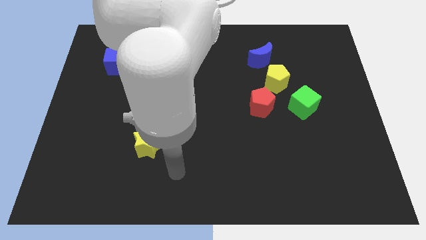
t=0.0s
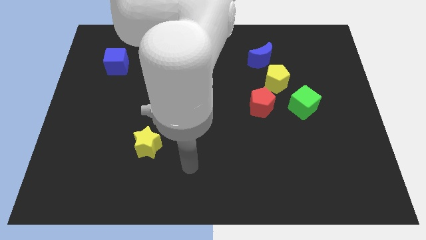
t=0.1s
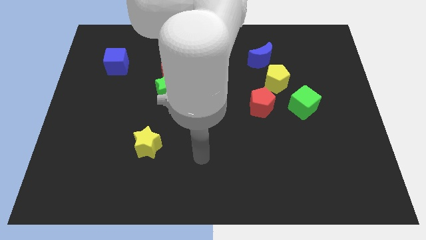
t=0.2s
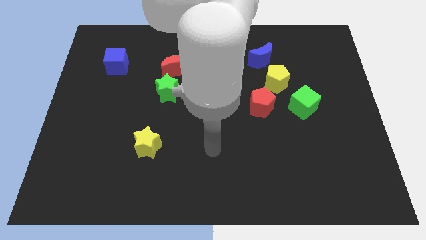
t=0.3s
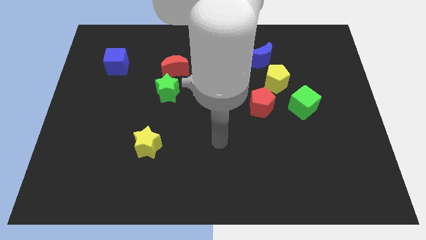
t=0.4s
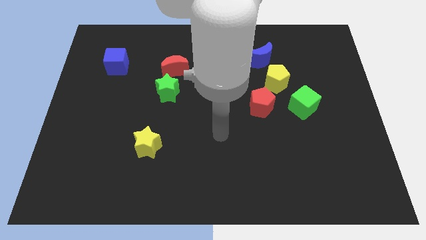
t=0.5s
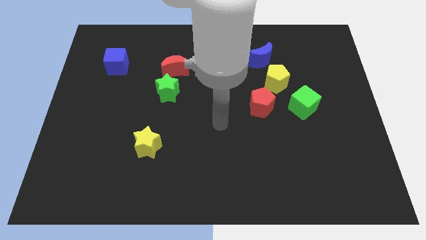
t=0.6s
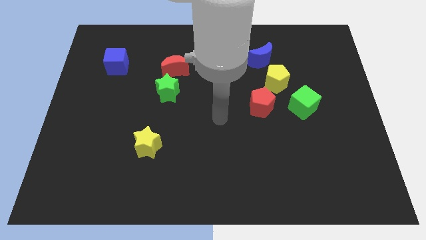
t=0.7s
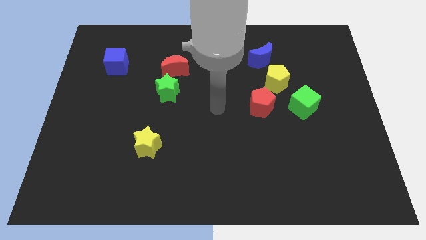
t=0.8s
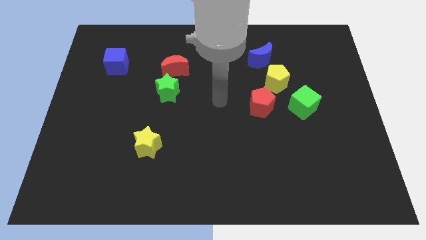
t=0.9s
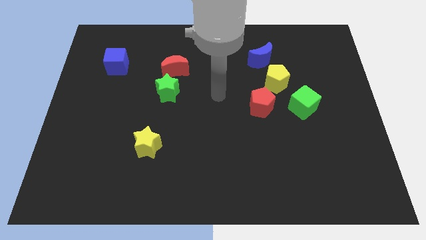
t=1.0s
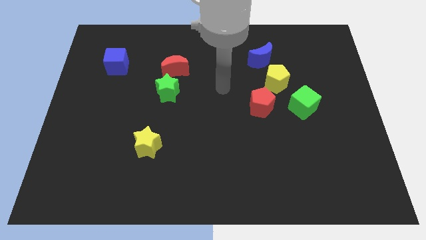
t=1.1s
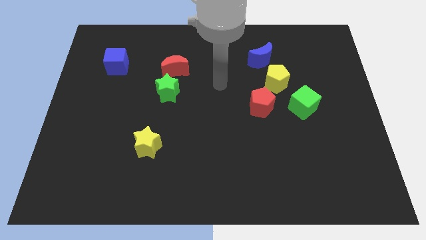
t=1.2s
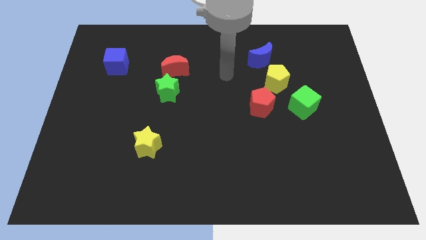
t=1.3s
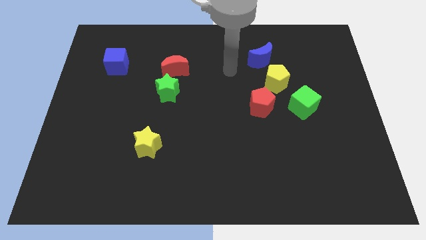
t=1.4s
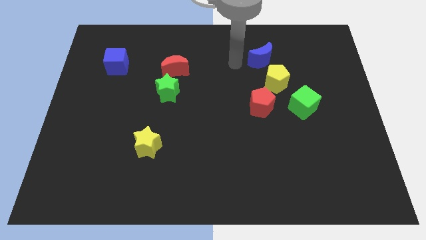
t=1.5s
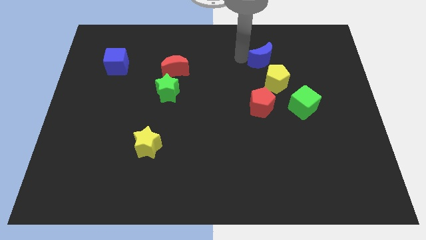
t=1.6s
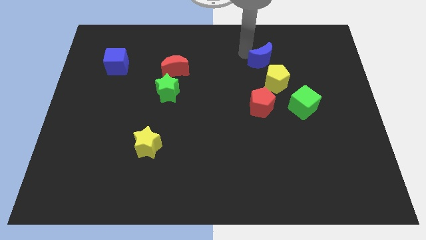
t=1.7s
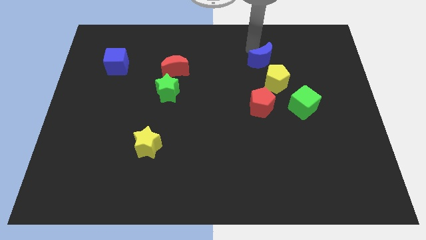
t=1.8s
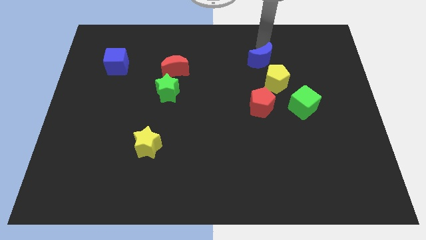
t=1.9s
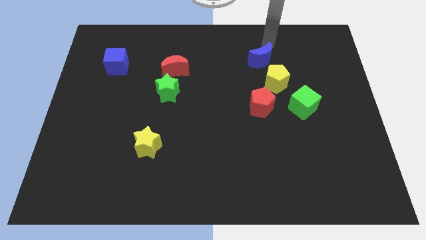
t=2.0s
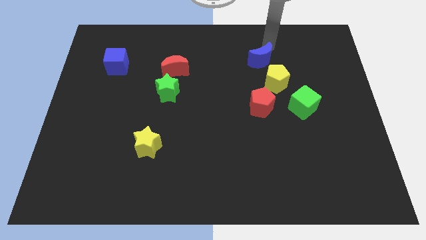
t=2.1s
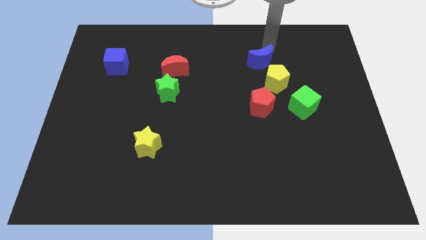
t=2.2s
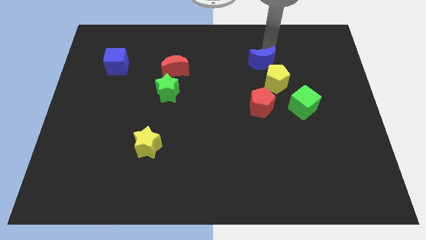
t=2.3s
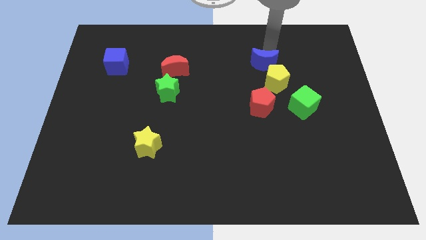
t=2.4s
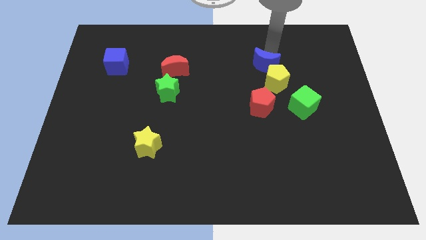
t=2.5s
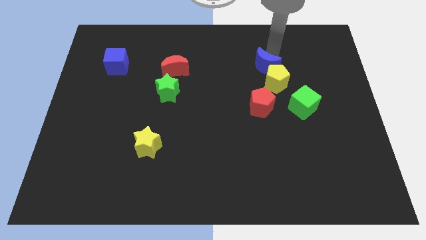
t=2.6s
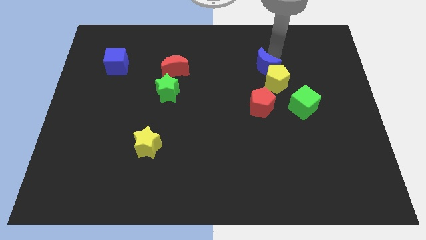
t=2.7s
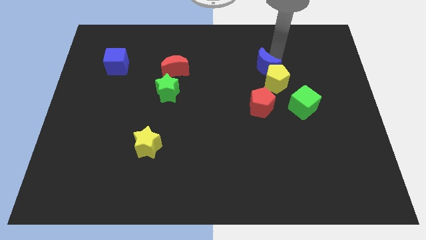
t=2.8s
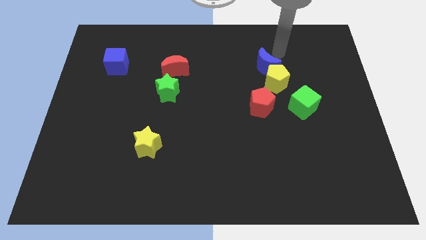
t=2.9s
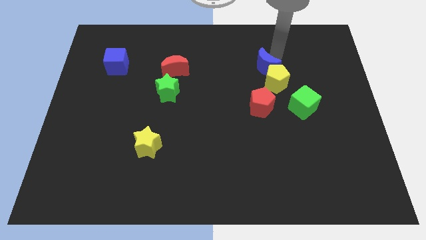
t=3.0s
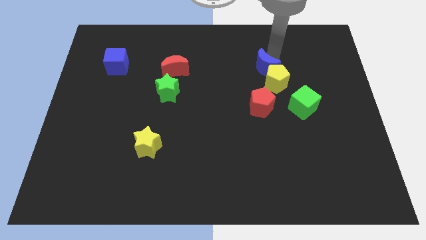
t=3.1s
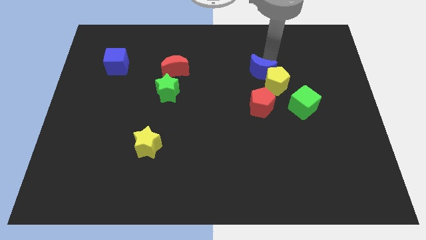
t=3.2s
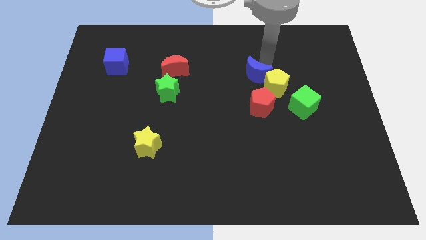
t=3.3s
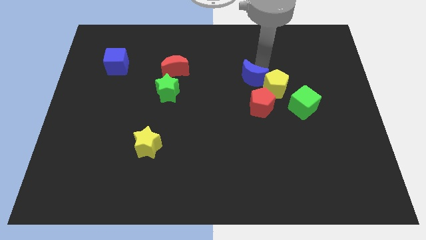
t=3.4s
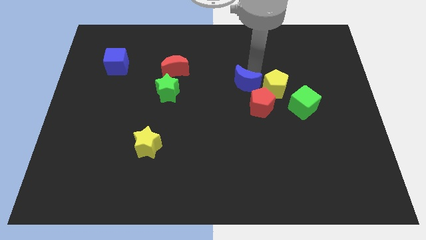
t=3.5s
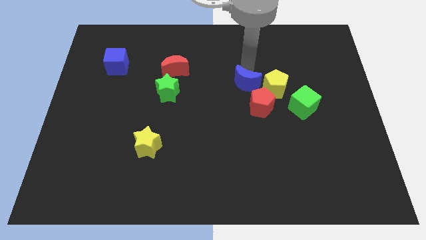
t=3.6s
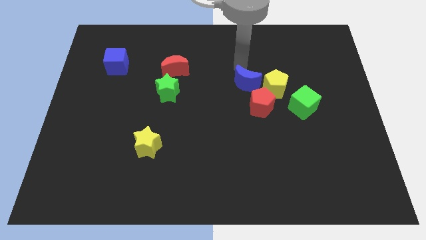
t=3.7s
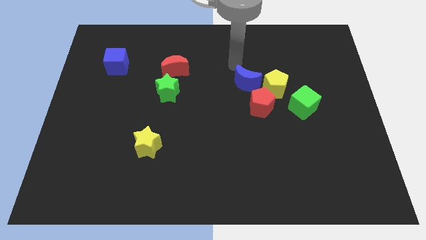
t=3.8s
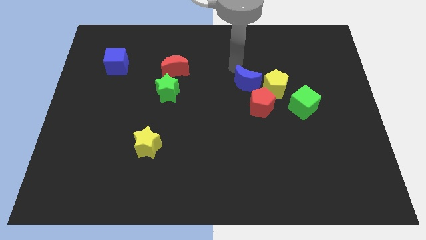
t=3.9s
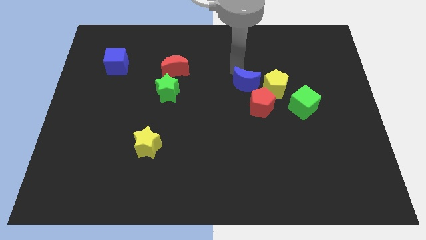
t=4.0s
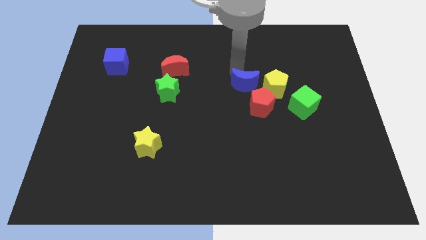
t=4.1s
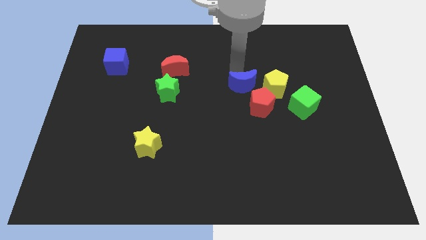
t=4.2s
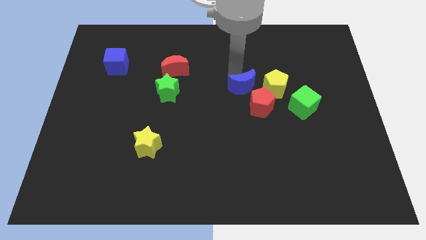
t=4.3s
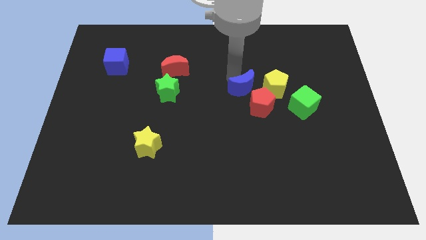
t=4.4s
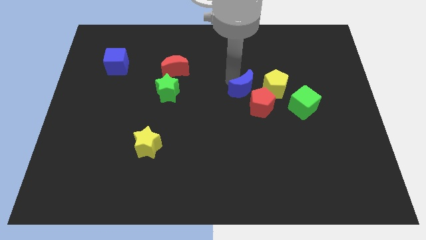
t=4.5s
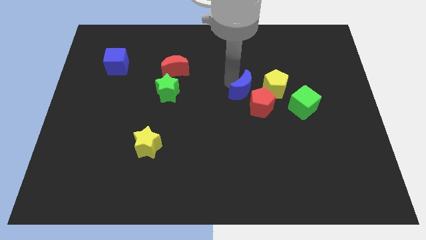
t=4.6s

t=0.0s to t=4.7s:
move the blue moon to the red pentagon

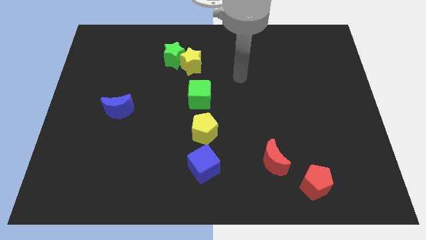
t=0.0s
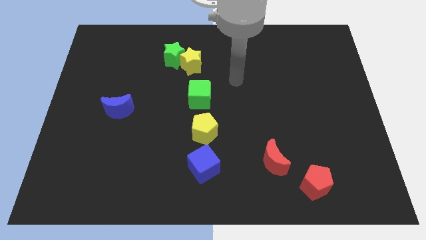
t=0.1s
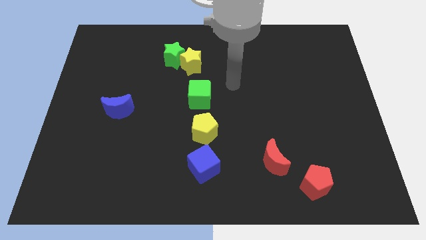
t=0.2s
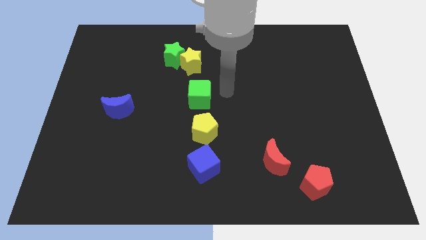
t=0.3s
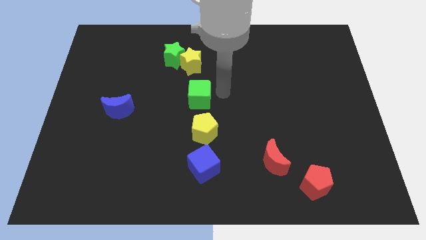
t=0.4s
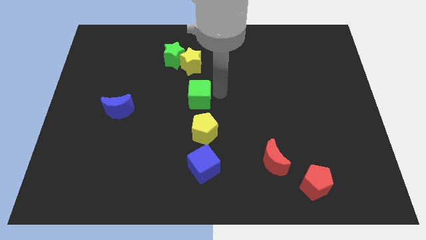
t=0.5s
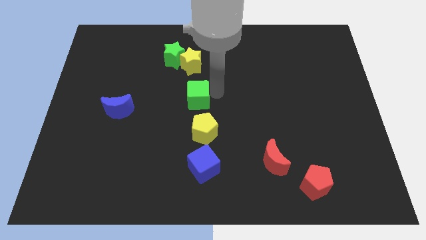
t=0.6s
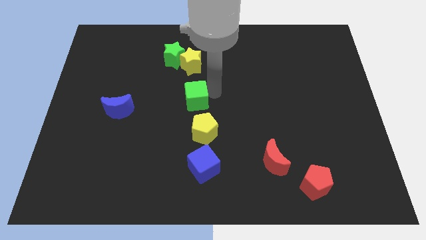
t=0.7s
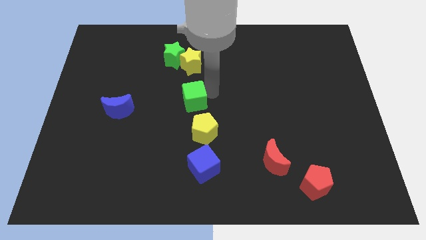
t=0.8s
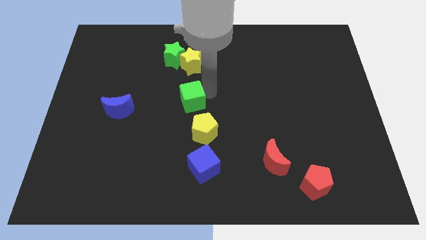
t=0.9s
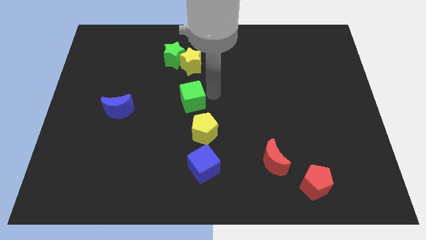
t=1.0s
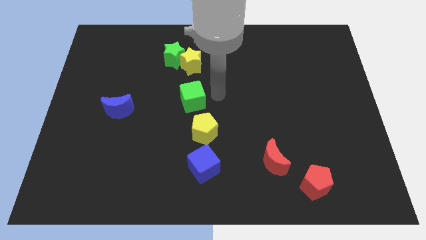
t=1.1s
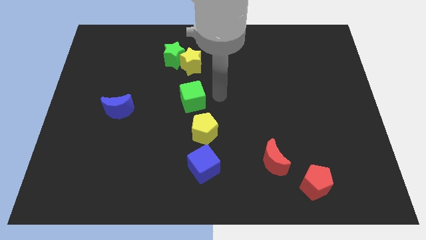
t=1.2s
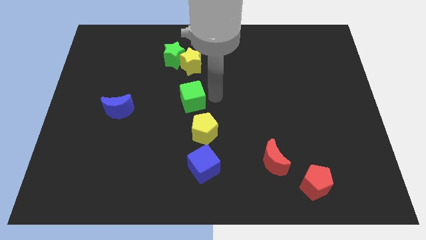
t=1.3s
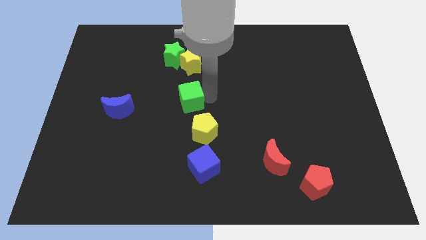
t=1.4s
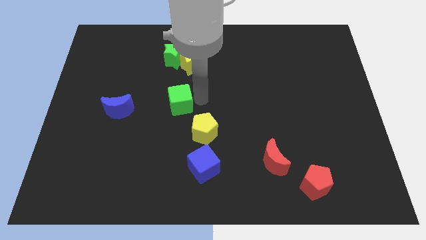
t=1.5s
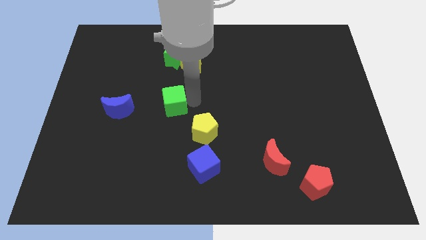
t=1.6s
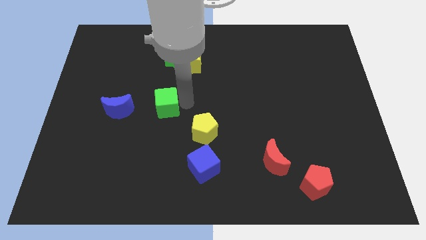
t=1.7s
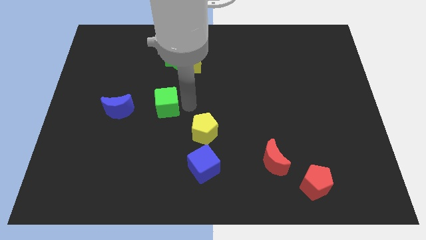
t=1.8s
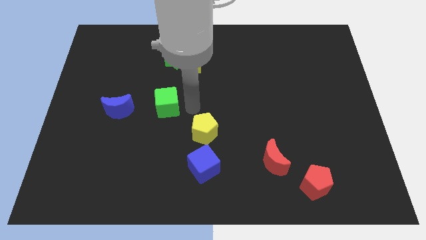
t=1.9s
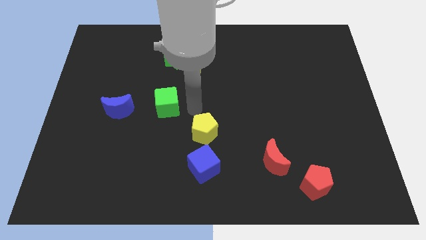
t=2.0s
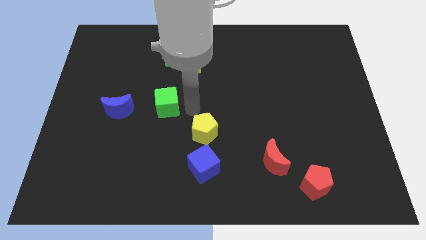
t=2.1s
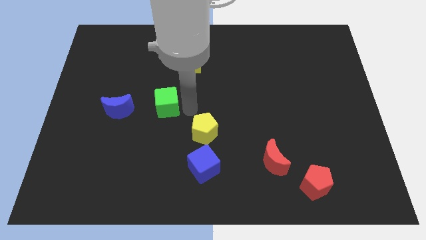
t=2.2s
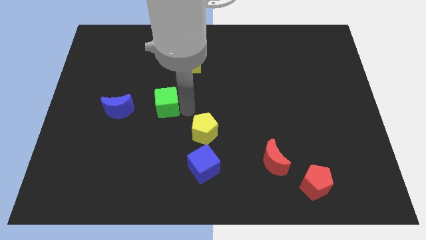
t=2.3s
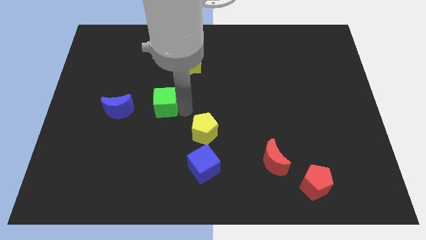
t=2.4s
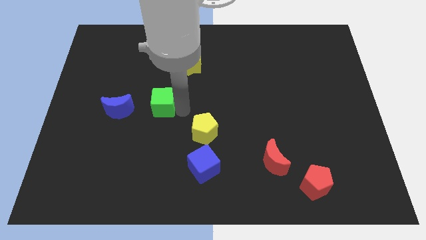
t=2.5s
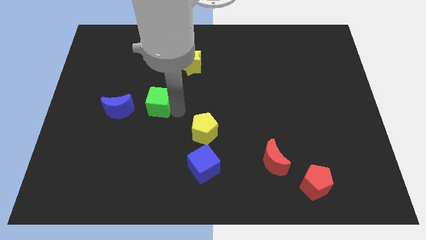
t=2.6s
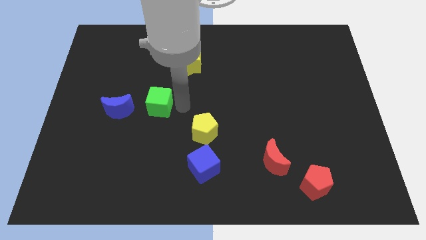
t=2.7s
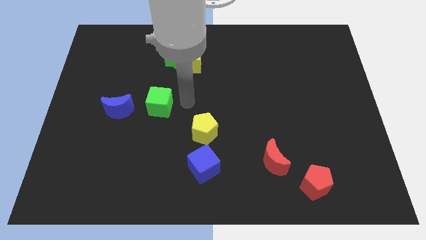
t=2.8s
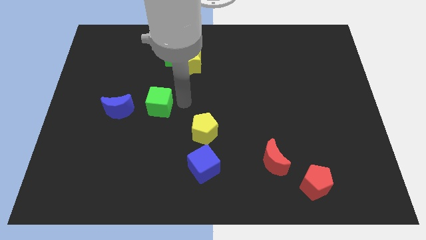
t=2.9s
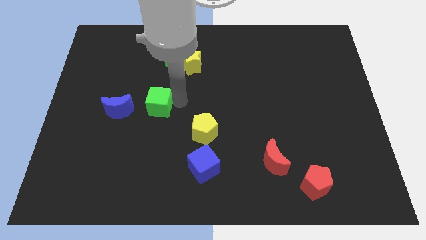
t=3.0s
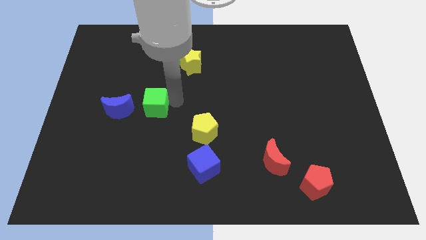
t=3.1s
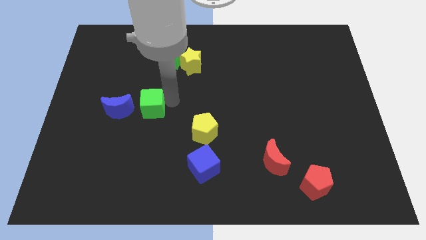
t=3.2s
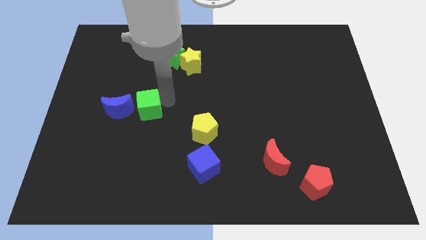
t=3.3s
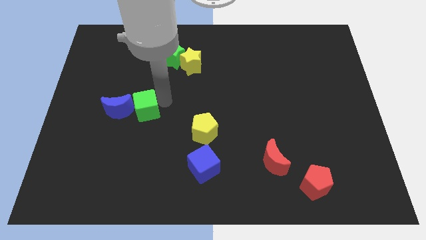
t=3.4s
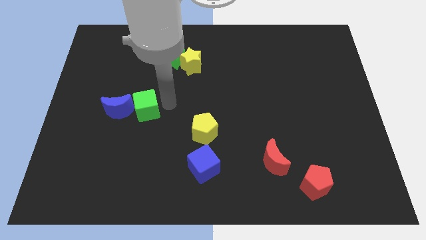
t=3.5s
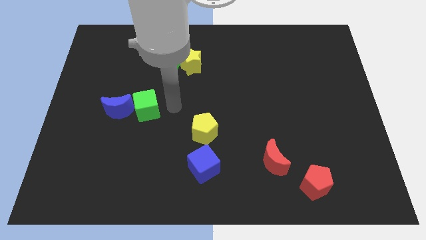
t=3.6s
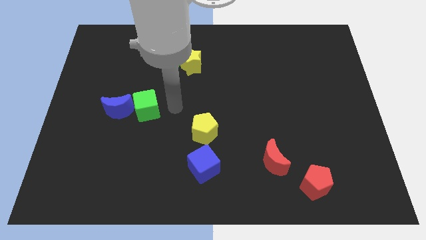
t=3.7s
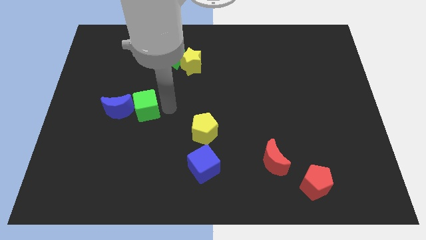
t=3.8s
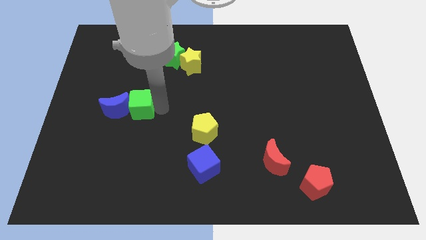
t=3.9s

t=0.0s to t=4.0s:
slide the green cube to the blue moon
